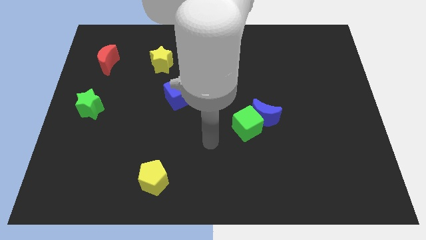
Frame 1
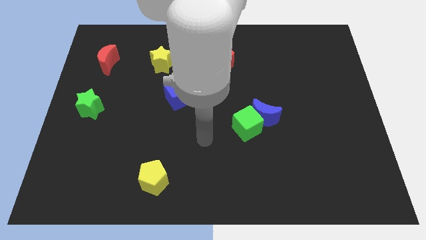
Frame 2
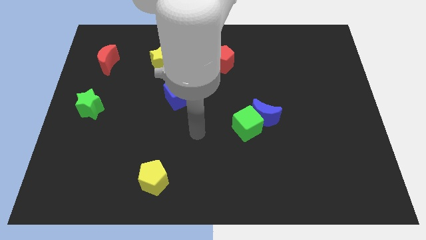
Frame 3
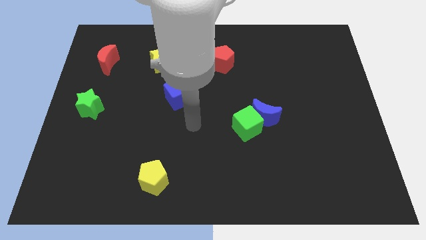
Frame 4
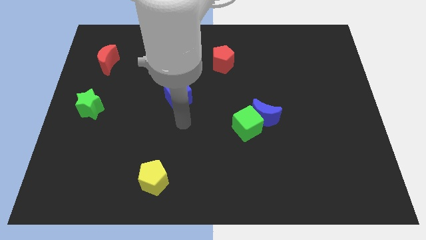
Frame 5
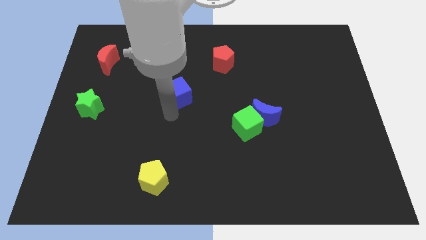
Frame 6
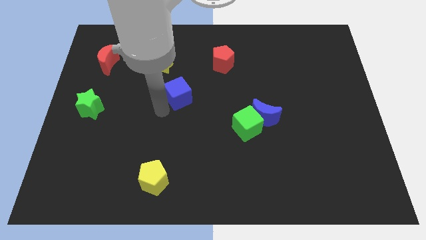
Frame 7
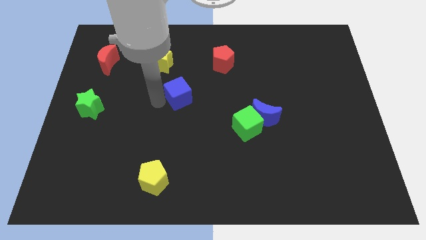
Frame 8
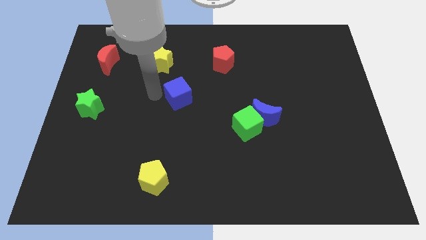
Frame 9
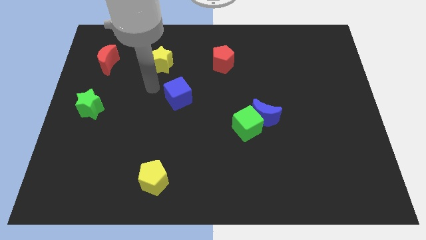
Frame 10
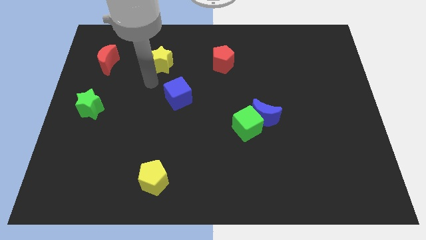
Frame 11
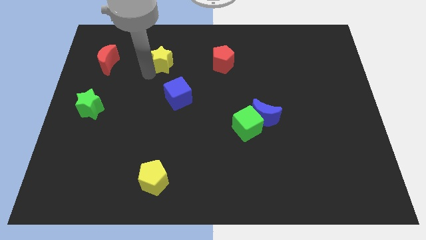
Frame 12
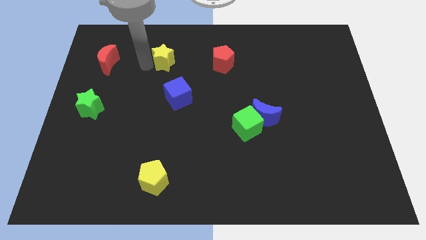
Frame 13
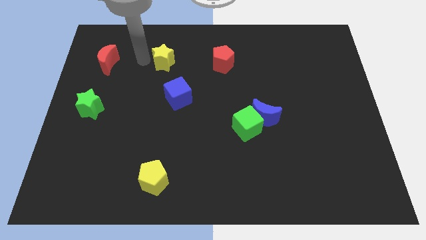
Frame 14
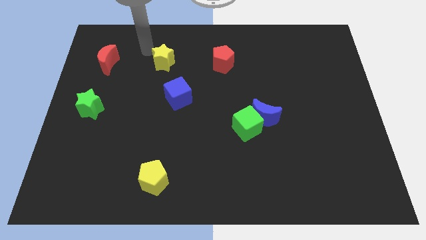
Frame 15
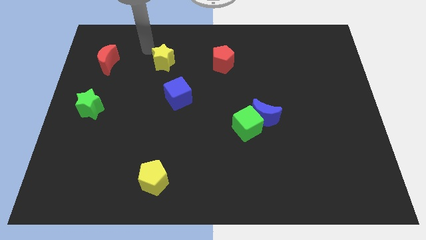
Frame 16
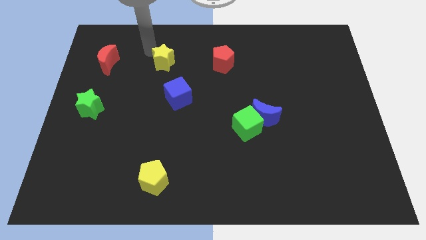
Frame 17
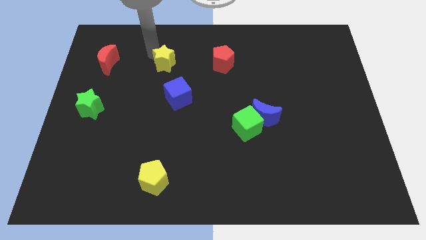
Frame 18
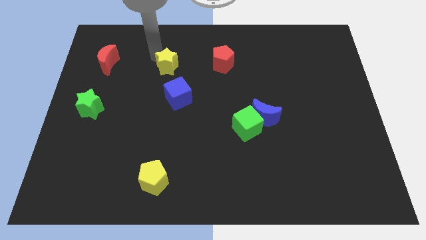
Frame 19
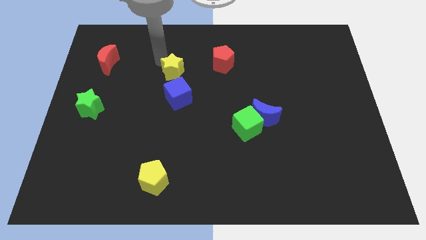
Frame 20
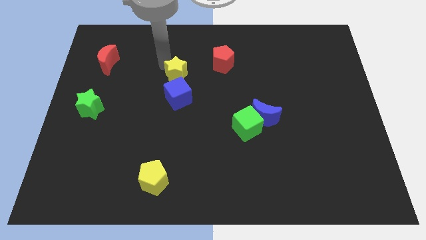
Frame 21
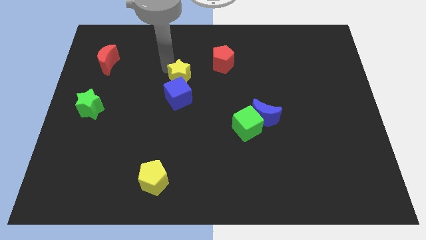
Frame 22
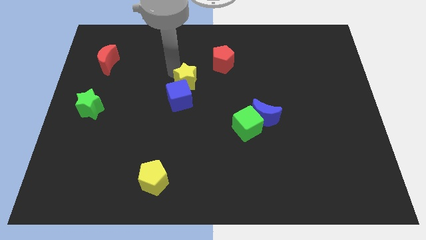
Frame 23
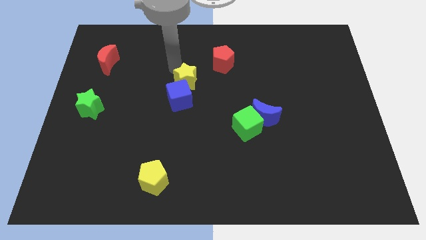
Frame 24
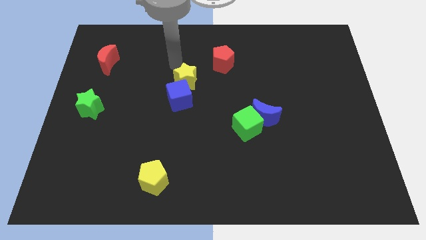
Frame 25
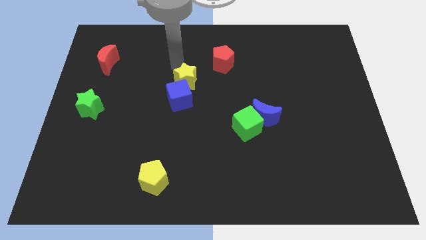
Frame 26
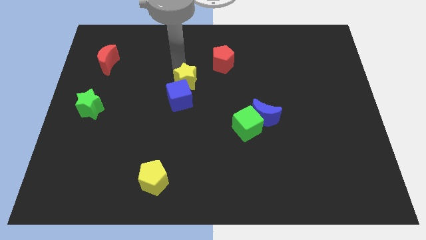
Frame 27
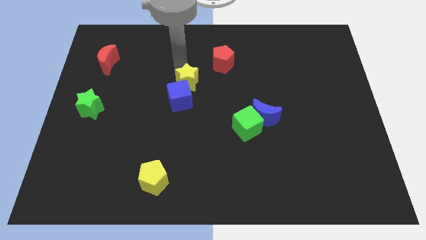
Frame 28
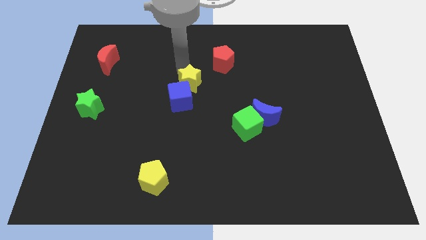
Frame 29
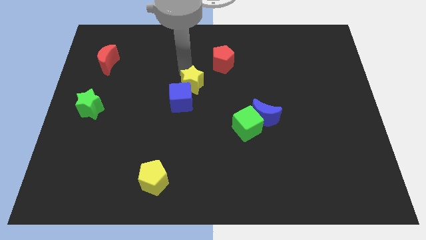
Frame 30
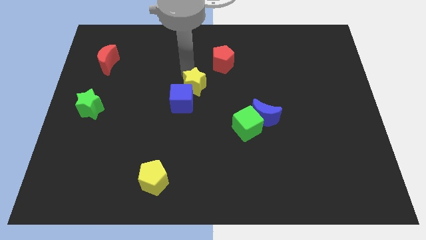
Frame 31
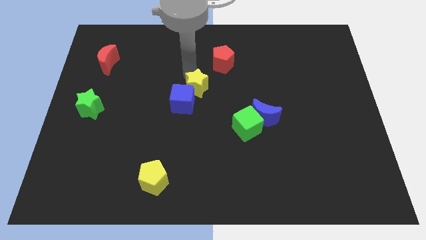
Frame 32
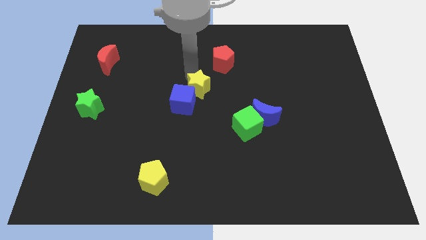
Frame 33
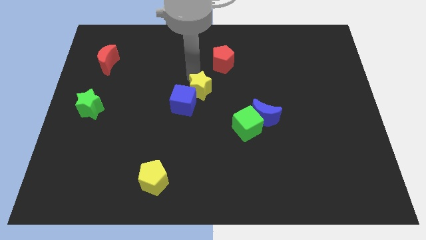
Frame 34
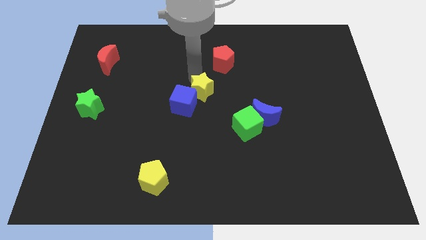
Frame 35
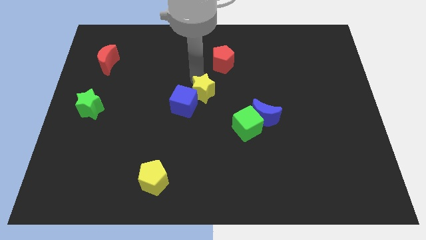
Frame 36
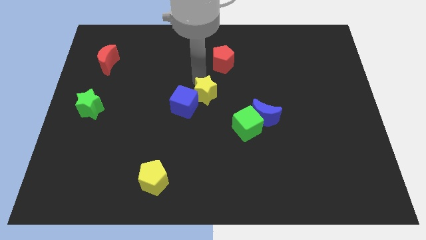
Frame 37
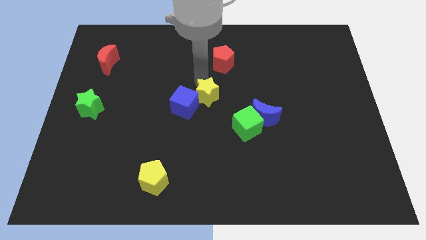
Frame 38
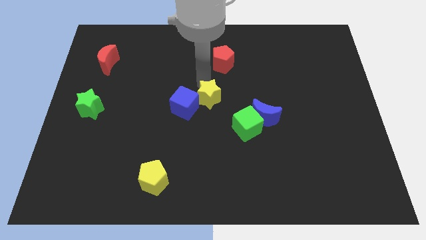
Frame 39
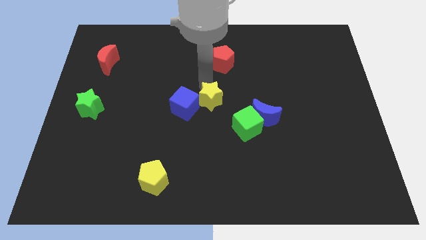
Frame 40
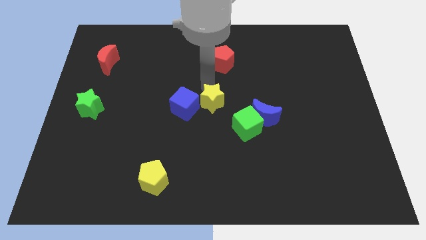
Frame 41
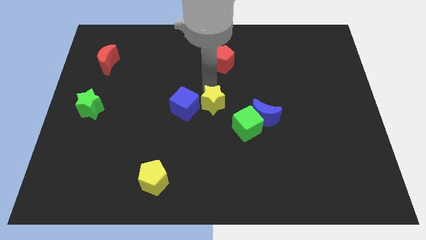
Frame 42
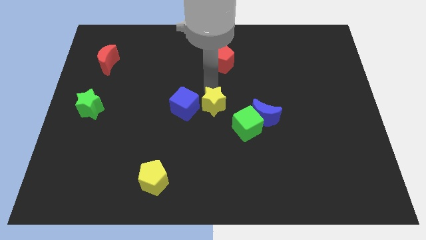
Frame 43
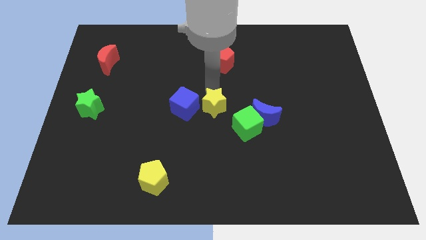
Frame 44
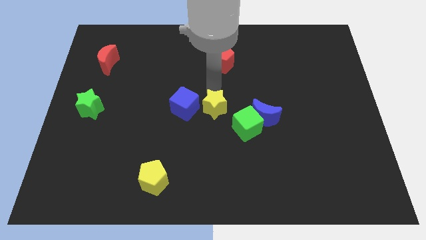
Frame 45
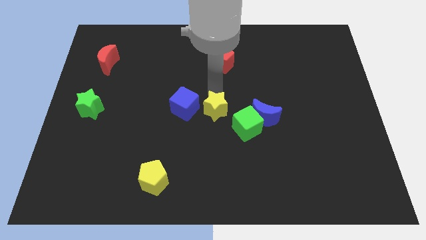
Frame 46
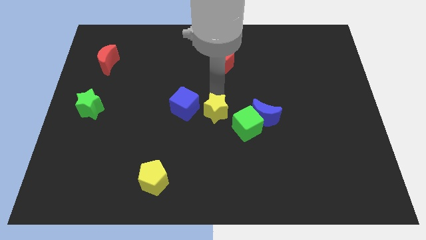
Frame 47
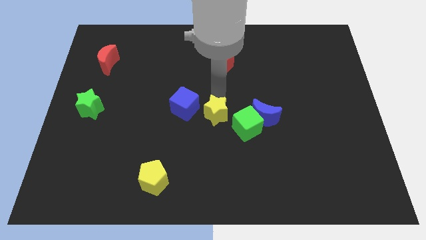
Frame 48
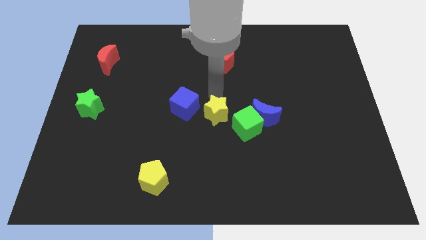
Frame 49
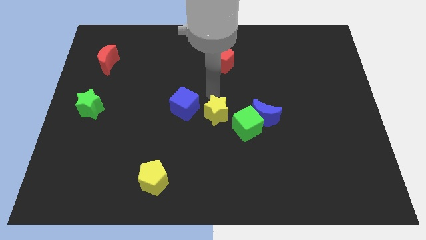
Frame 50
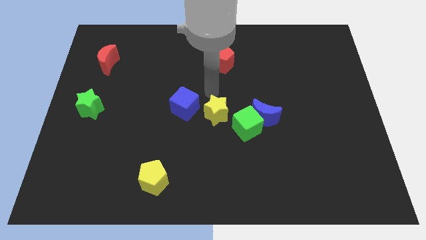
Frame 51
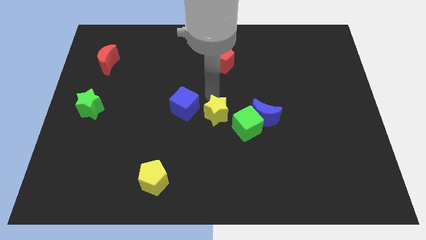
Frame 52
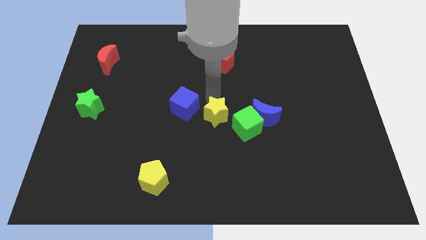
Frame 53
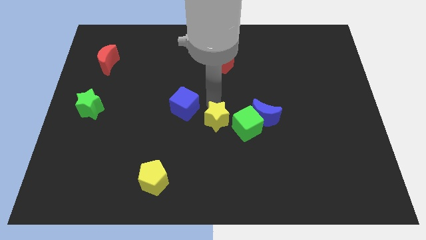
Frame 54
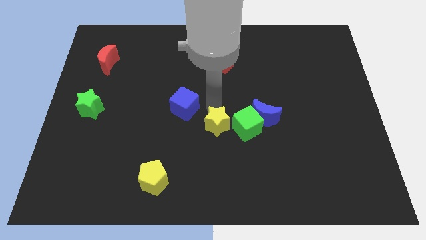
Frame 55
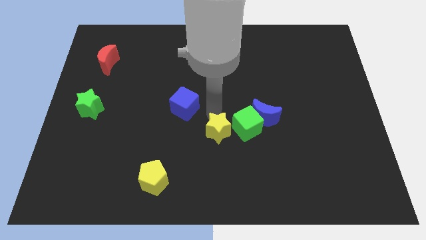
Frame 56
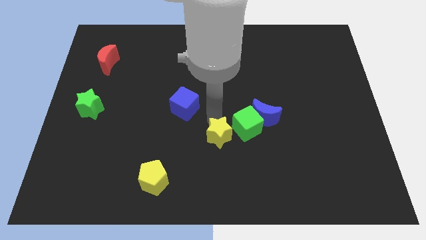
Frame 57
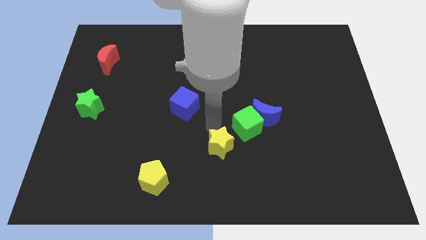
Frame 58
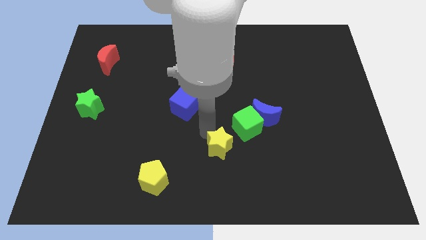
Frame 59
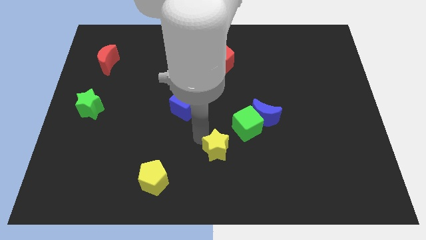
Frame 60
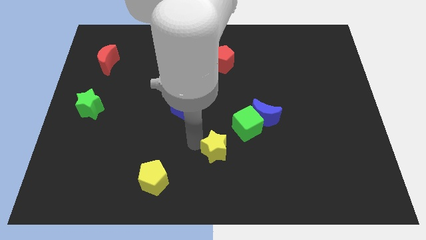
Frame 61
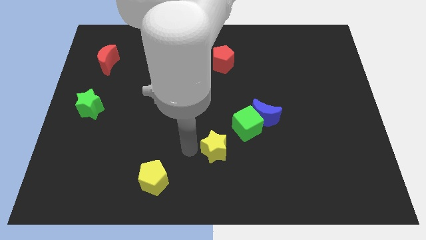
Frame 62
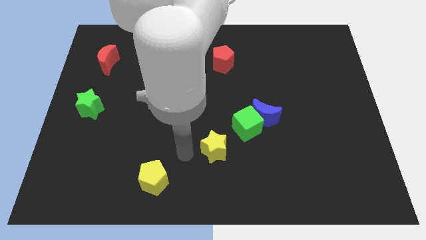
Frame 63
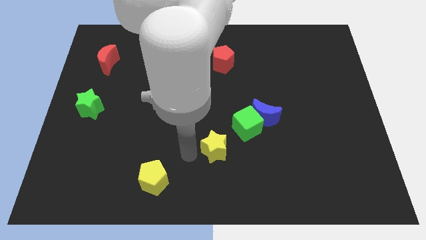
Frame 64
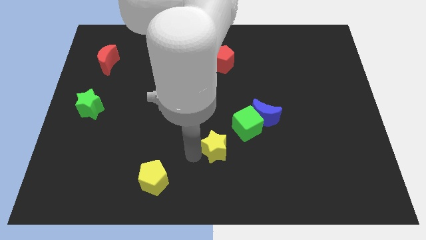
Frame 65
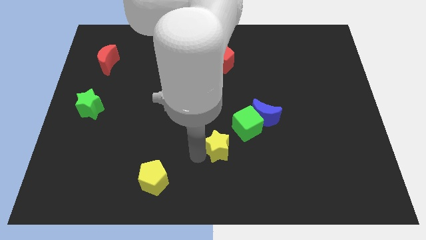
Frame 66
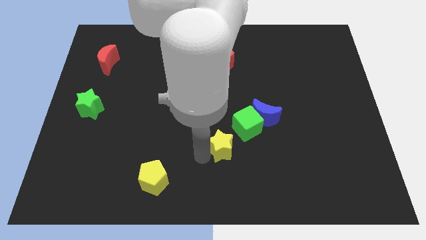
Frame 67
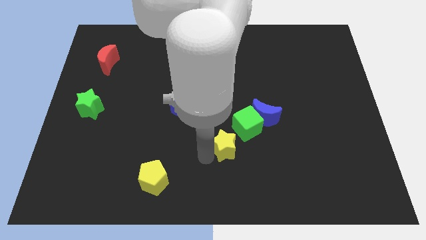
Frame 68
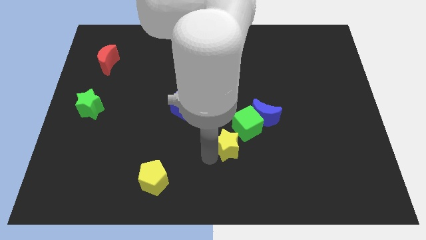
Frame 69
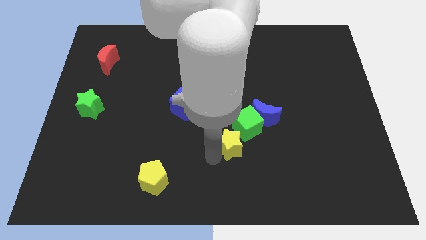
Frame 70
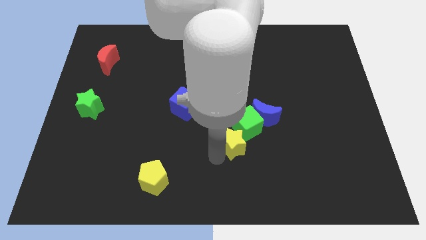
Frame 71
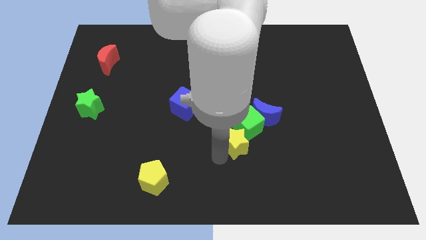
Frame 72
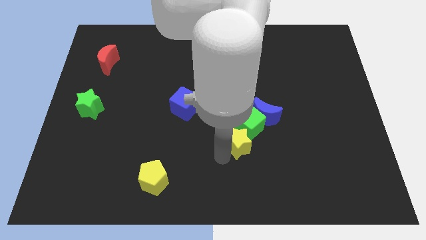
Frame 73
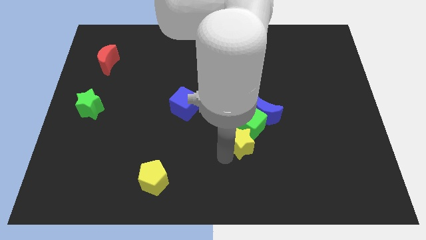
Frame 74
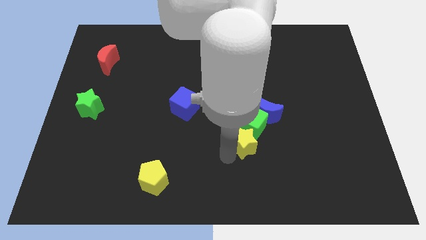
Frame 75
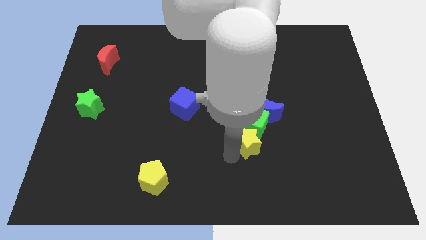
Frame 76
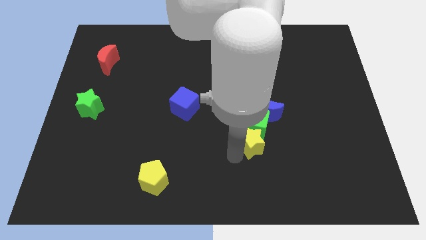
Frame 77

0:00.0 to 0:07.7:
slide the yellow star to the bottom right side of the green cube
